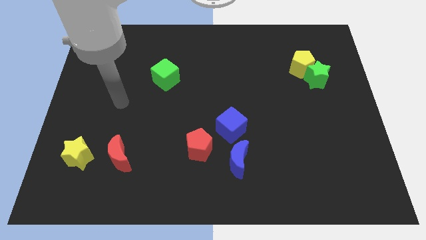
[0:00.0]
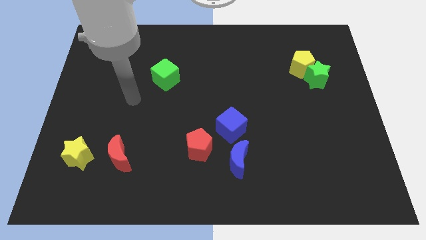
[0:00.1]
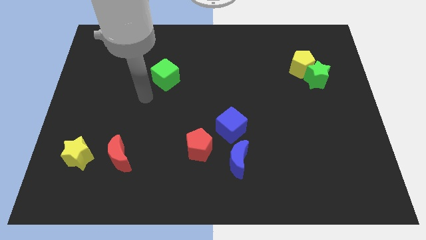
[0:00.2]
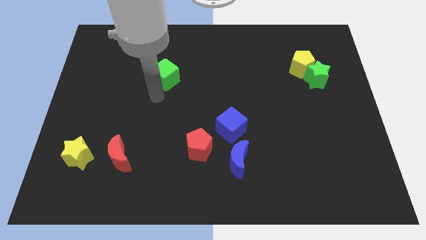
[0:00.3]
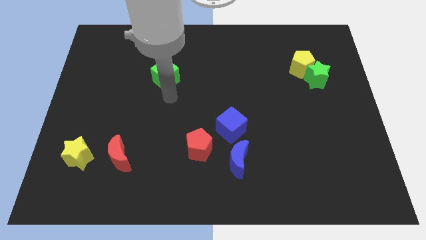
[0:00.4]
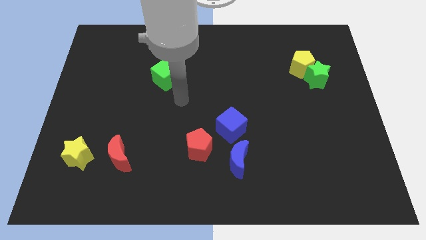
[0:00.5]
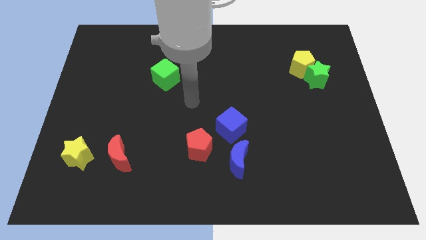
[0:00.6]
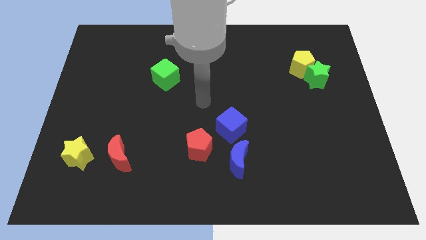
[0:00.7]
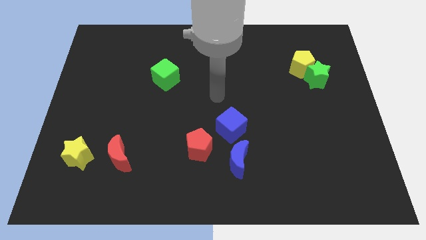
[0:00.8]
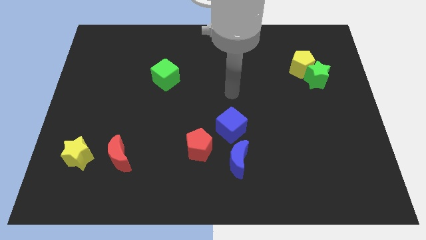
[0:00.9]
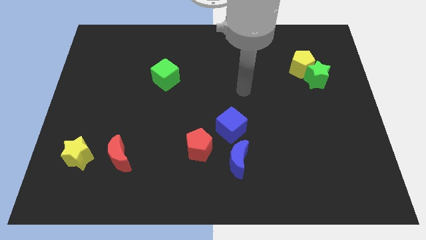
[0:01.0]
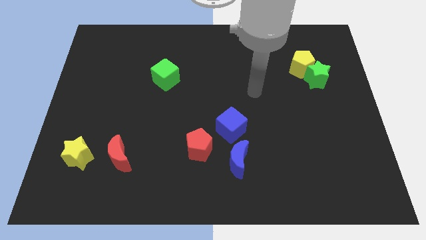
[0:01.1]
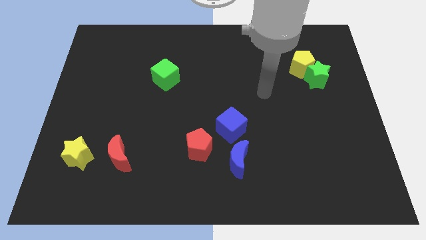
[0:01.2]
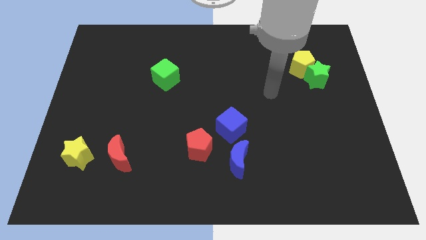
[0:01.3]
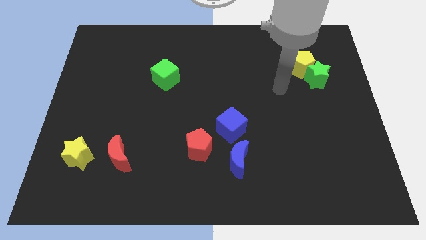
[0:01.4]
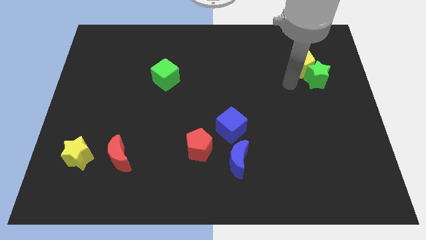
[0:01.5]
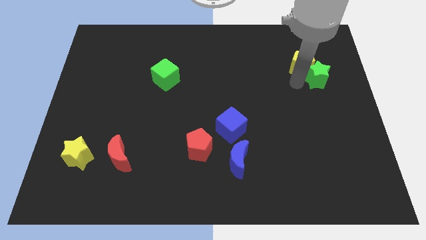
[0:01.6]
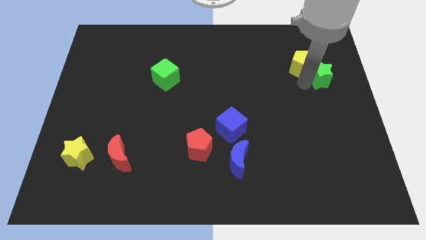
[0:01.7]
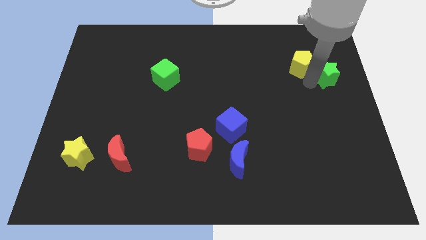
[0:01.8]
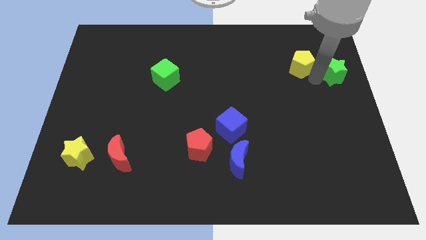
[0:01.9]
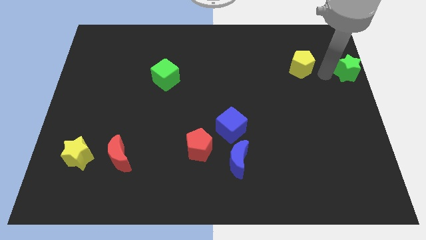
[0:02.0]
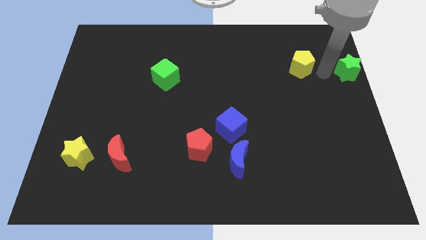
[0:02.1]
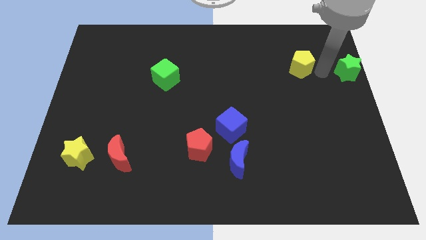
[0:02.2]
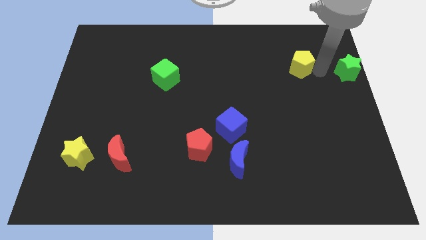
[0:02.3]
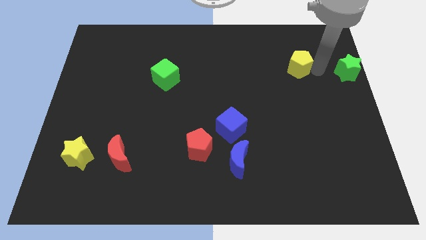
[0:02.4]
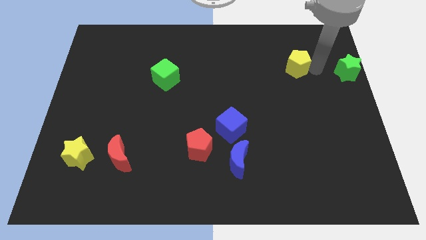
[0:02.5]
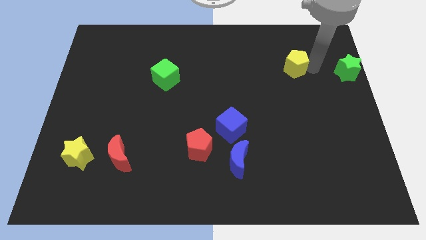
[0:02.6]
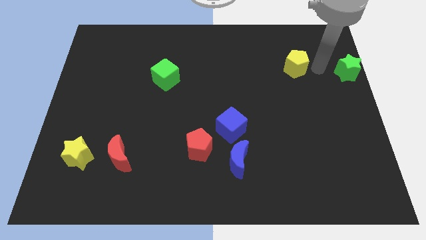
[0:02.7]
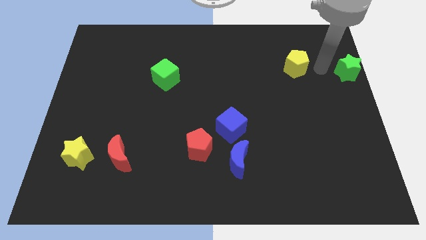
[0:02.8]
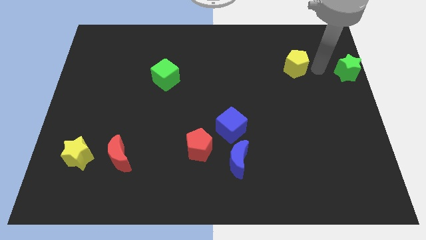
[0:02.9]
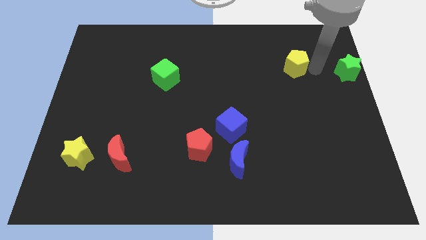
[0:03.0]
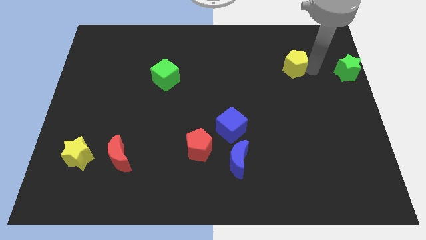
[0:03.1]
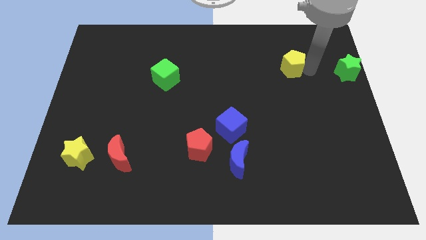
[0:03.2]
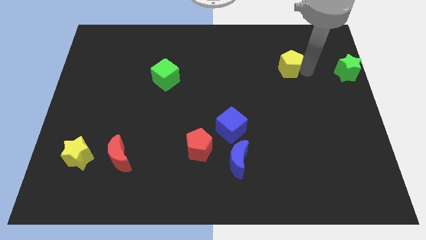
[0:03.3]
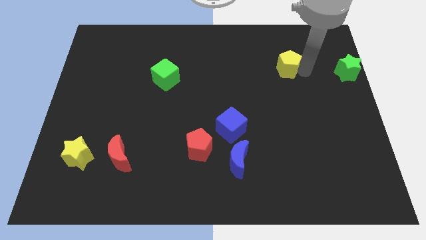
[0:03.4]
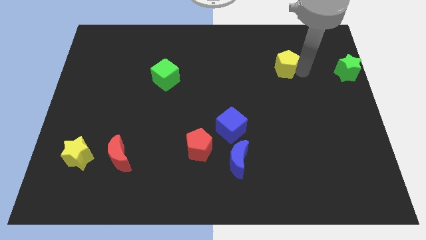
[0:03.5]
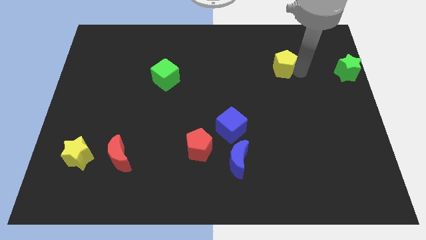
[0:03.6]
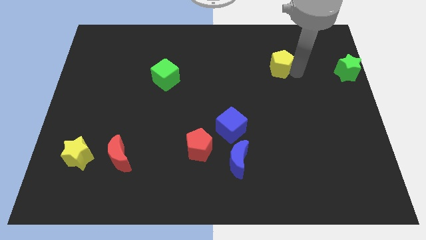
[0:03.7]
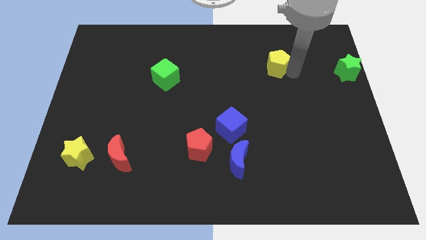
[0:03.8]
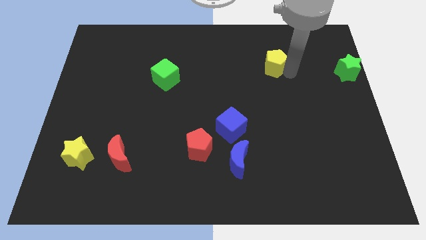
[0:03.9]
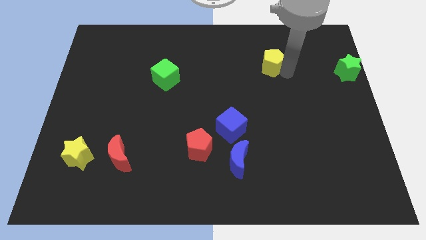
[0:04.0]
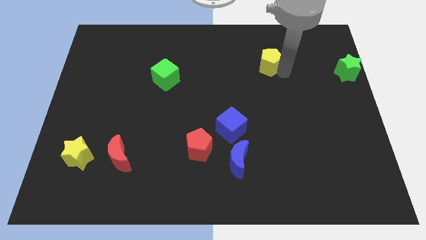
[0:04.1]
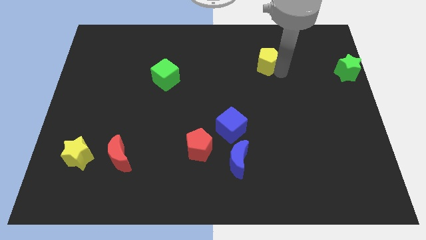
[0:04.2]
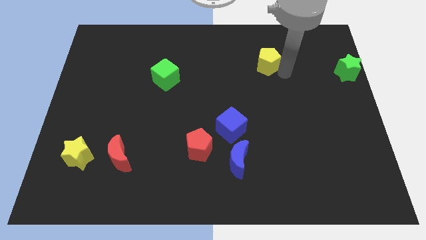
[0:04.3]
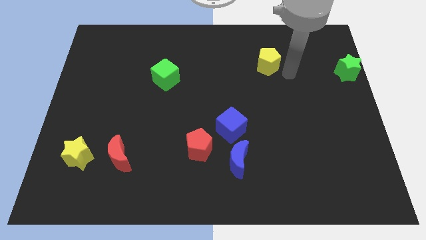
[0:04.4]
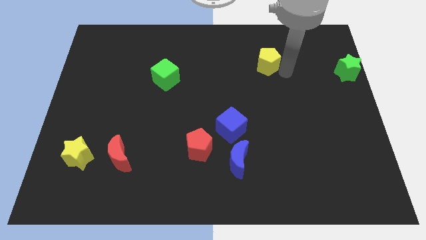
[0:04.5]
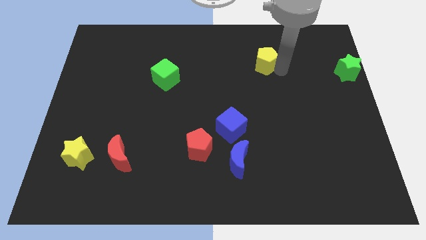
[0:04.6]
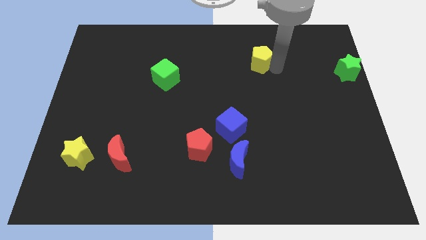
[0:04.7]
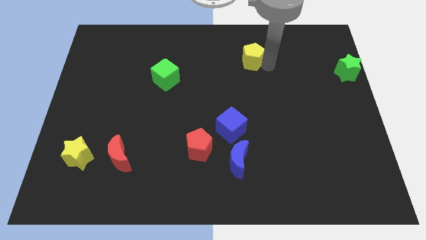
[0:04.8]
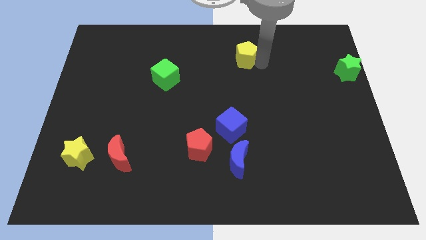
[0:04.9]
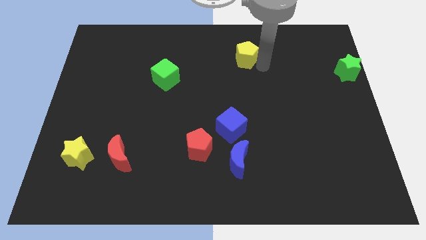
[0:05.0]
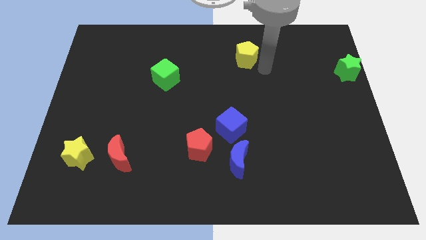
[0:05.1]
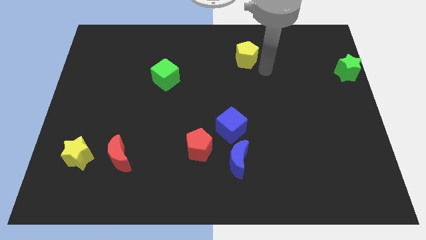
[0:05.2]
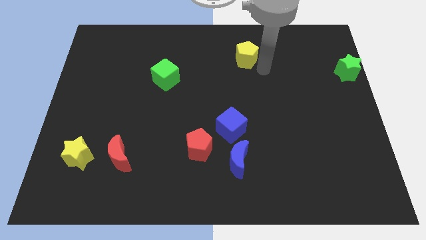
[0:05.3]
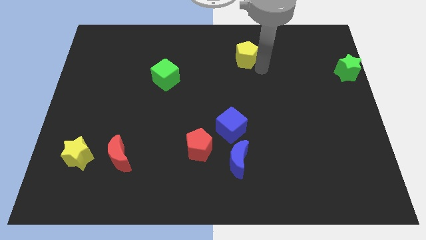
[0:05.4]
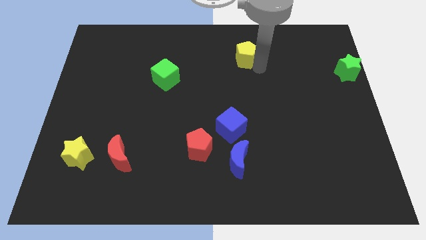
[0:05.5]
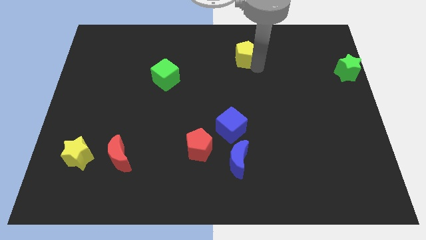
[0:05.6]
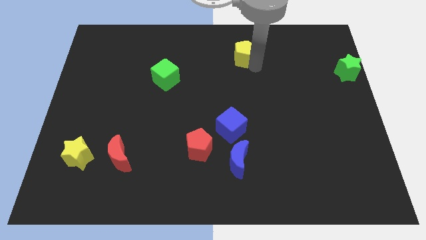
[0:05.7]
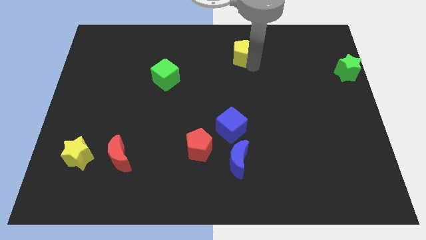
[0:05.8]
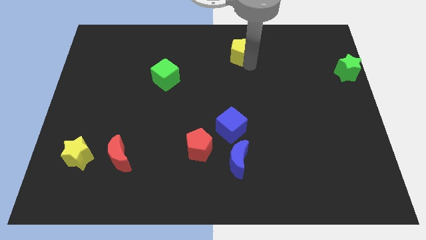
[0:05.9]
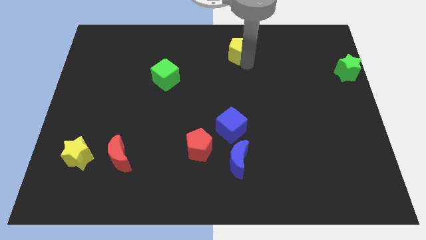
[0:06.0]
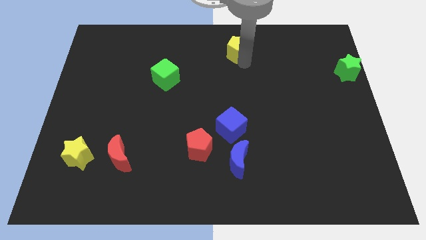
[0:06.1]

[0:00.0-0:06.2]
move the yellow pentagon to the top

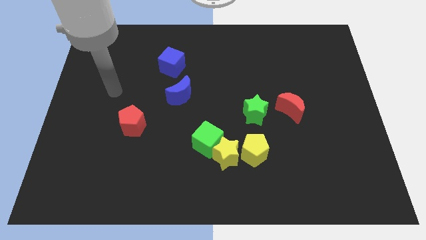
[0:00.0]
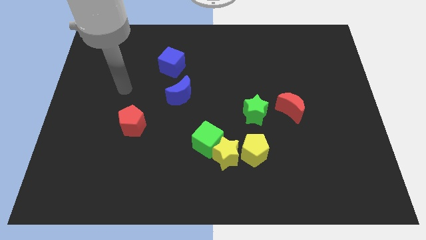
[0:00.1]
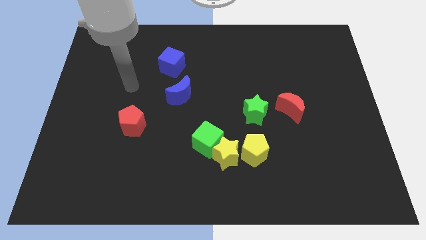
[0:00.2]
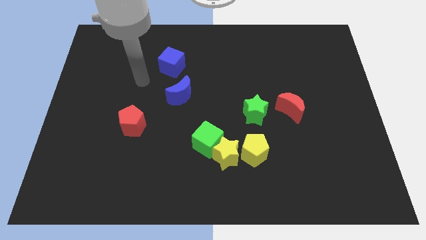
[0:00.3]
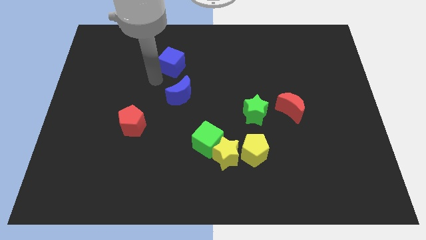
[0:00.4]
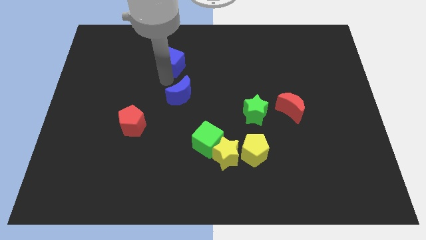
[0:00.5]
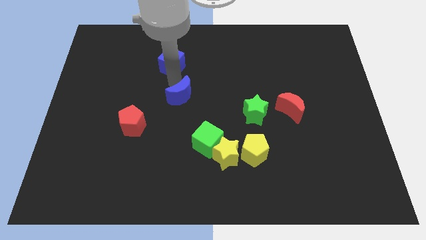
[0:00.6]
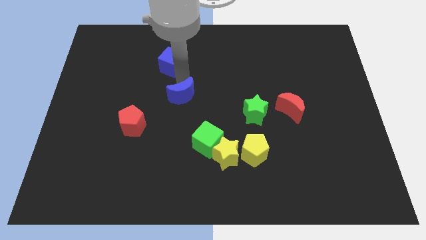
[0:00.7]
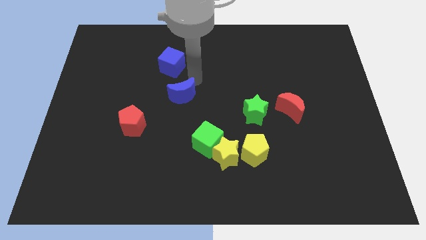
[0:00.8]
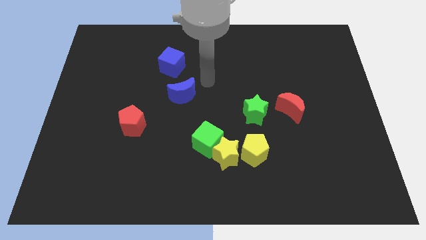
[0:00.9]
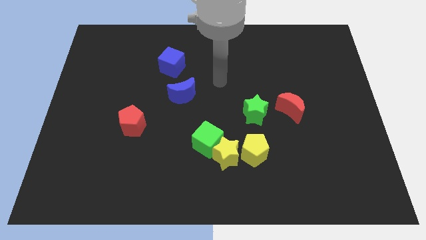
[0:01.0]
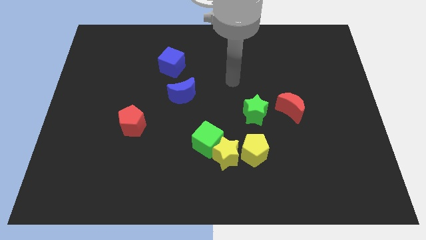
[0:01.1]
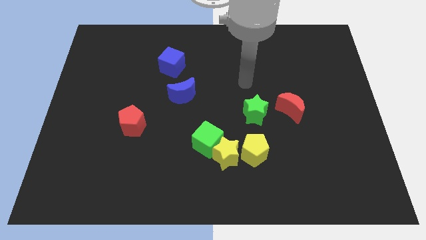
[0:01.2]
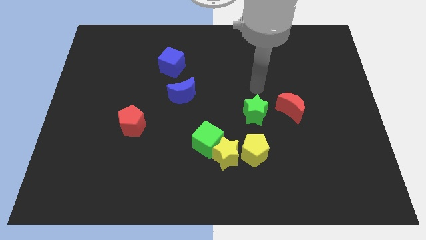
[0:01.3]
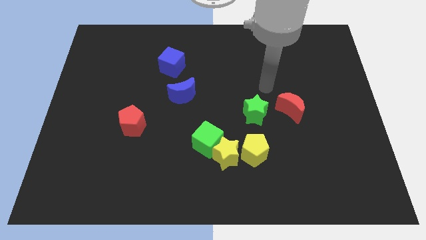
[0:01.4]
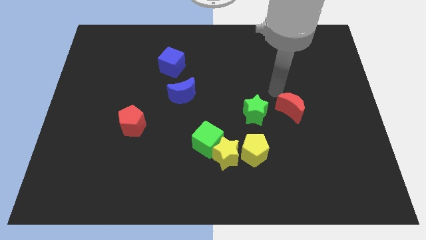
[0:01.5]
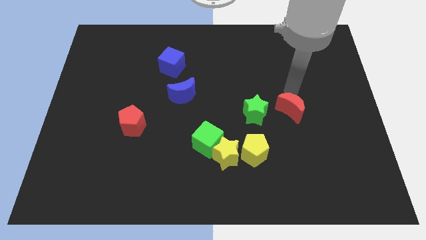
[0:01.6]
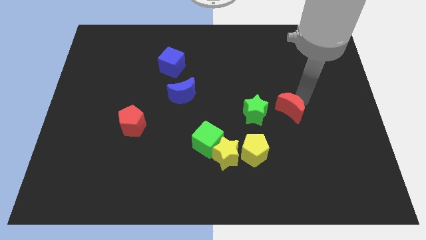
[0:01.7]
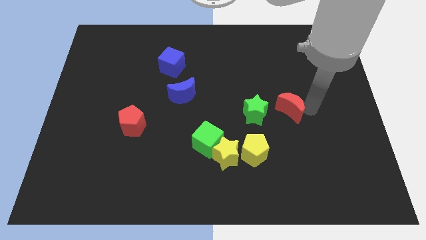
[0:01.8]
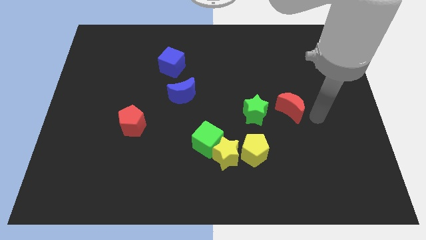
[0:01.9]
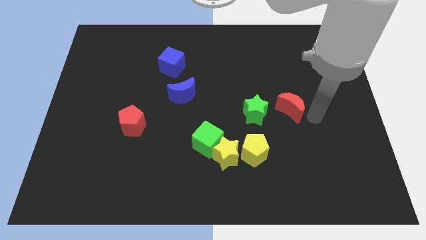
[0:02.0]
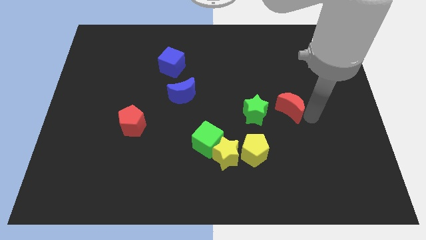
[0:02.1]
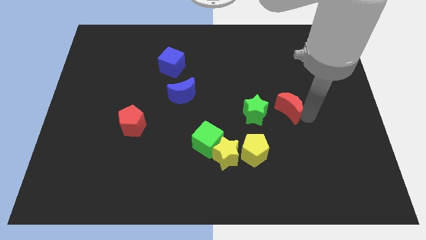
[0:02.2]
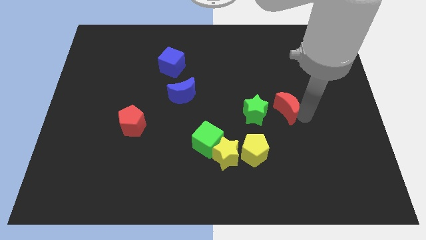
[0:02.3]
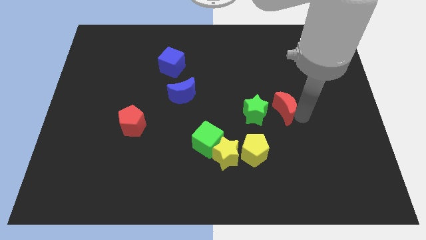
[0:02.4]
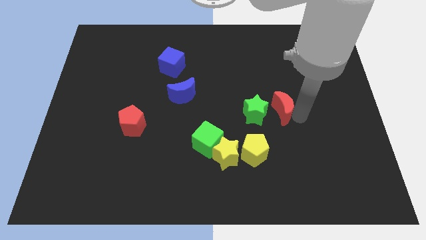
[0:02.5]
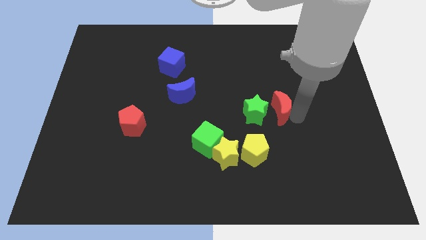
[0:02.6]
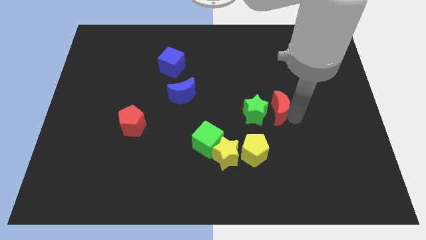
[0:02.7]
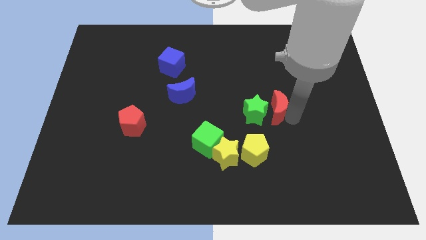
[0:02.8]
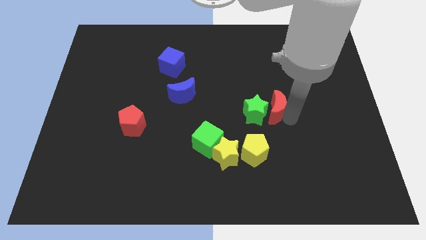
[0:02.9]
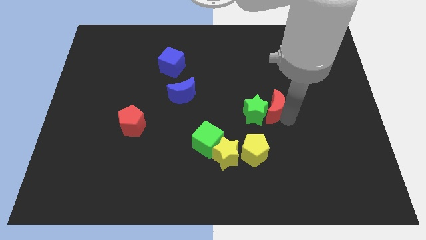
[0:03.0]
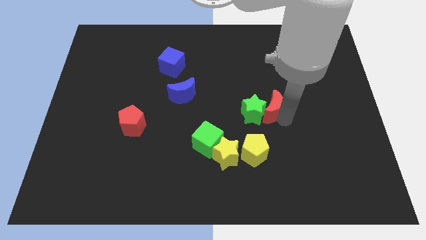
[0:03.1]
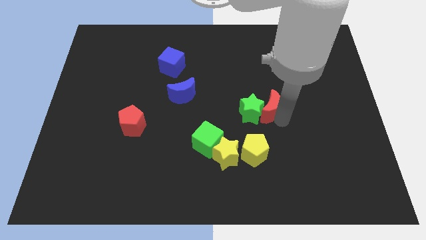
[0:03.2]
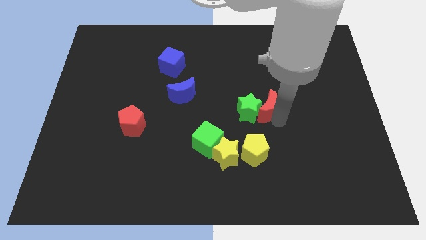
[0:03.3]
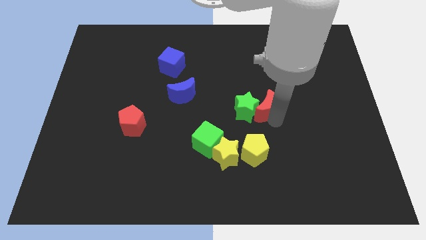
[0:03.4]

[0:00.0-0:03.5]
slide the red moon to the center of the board
